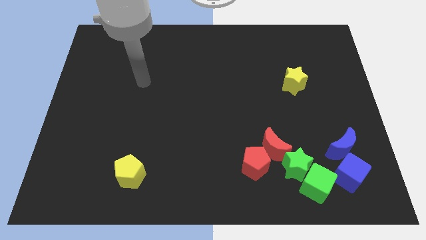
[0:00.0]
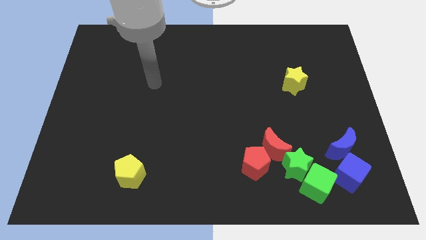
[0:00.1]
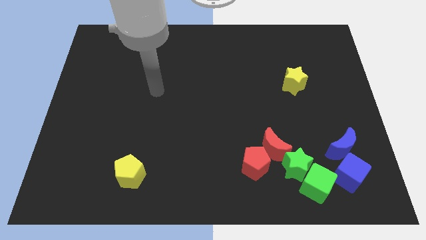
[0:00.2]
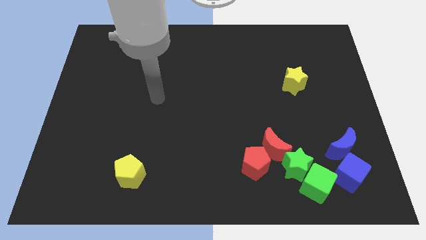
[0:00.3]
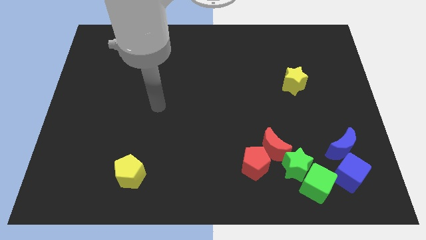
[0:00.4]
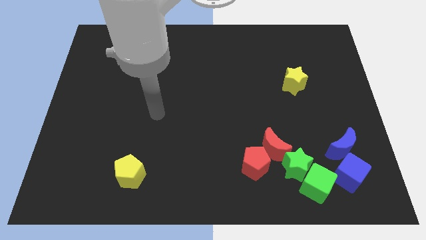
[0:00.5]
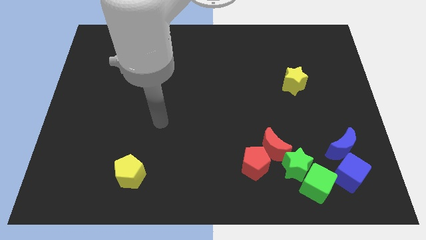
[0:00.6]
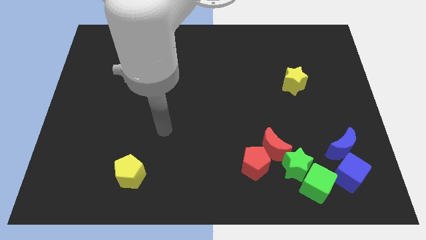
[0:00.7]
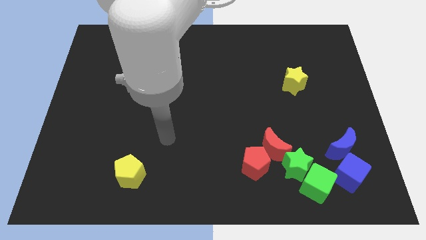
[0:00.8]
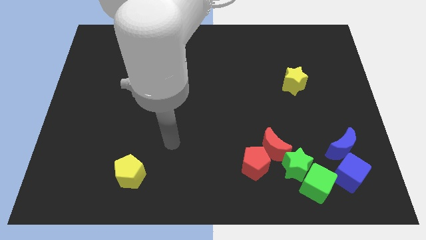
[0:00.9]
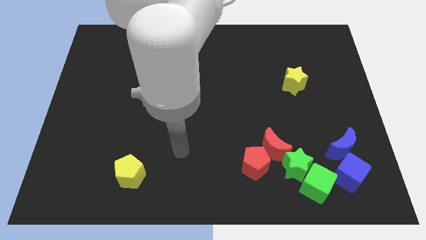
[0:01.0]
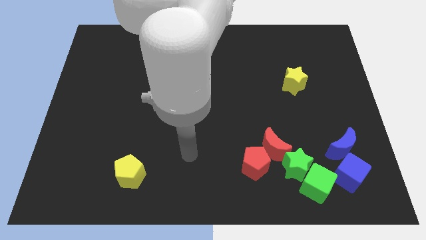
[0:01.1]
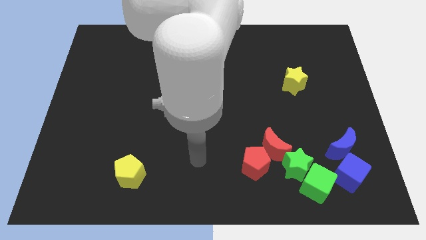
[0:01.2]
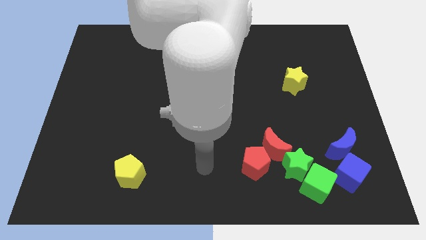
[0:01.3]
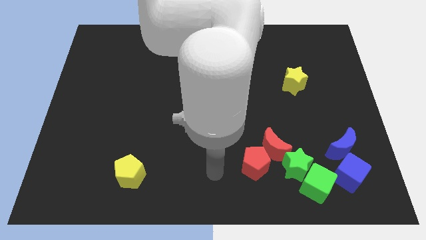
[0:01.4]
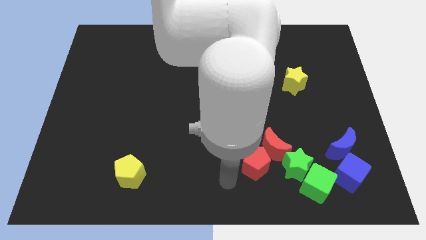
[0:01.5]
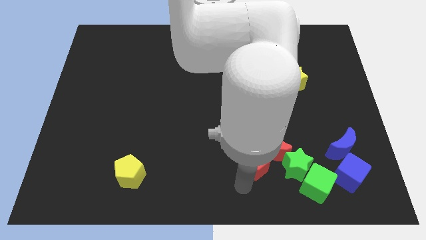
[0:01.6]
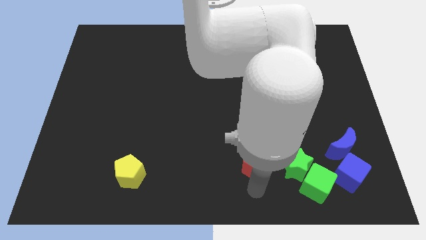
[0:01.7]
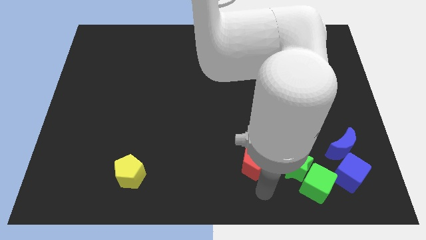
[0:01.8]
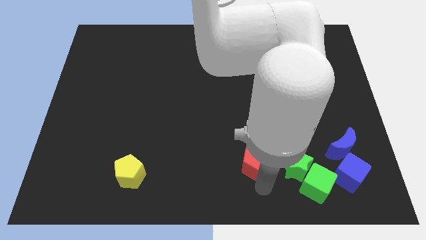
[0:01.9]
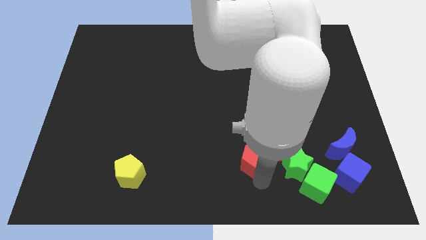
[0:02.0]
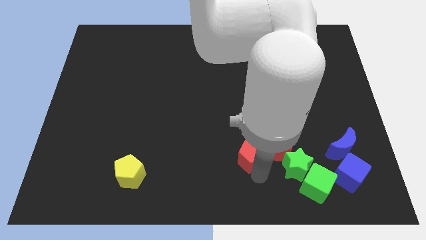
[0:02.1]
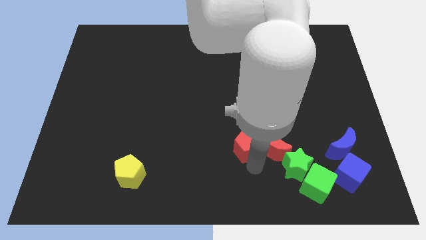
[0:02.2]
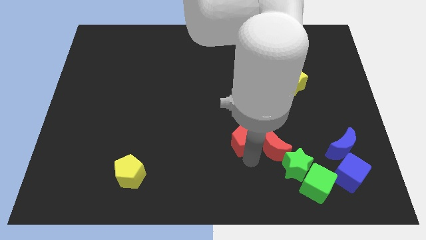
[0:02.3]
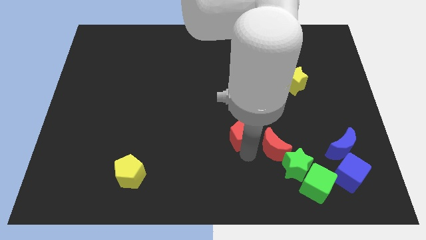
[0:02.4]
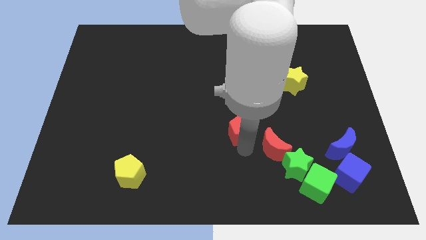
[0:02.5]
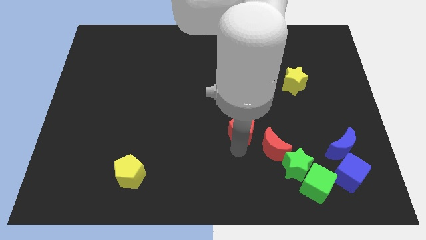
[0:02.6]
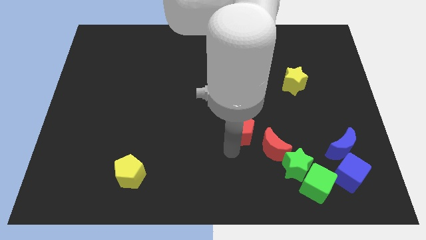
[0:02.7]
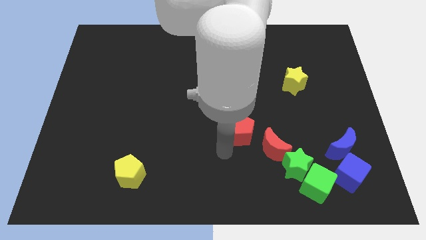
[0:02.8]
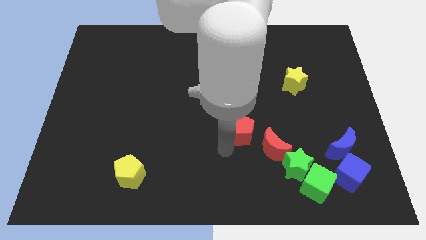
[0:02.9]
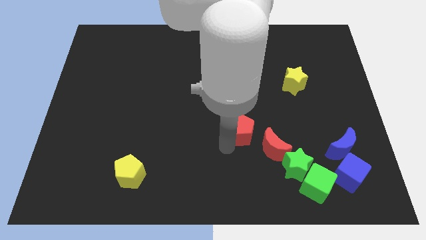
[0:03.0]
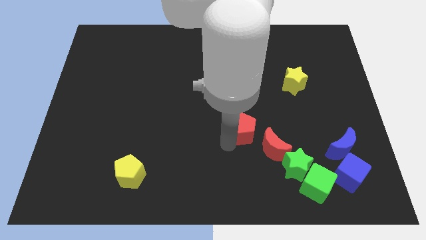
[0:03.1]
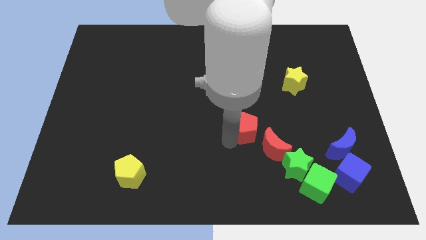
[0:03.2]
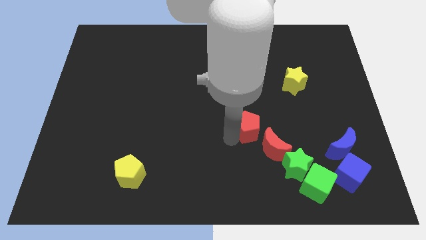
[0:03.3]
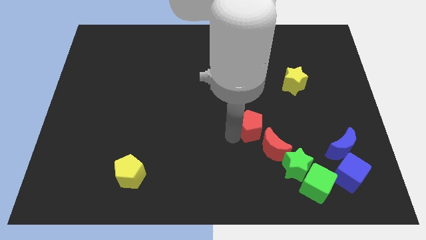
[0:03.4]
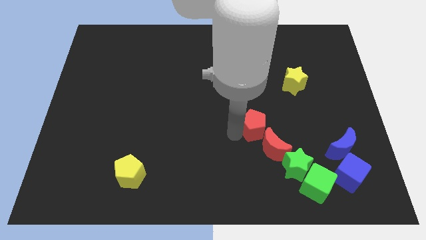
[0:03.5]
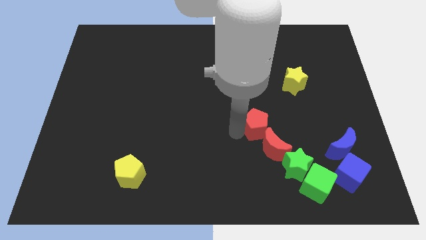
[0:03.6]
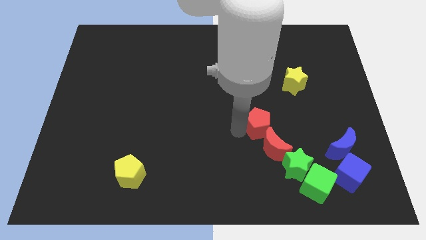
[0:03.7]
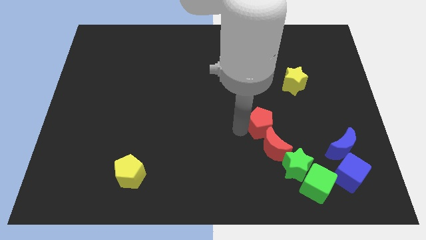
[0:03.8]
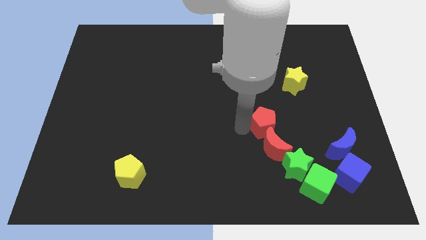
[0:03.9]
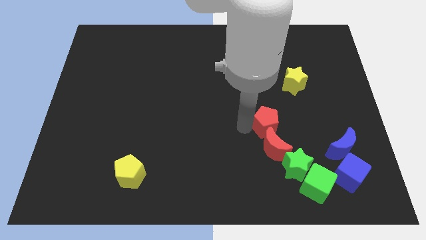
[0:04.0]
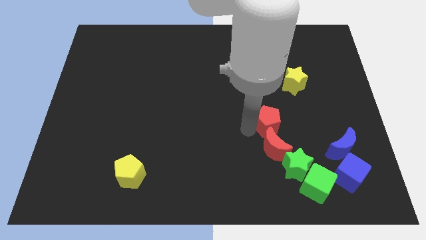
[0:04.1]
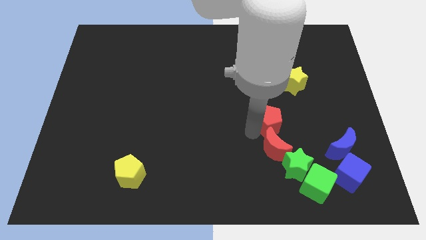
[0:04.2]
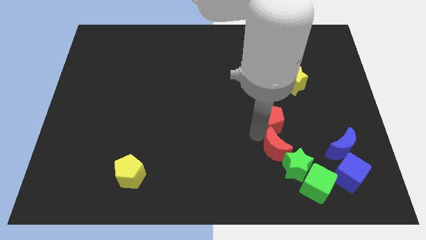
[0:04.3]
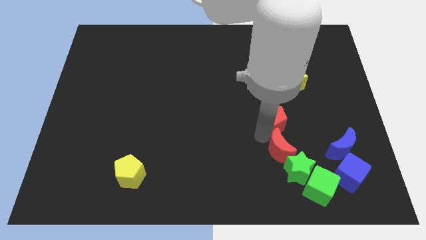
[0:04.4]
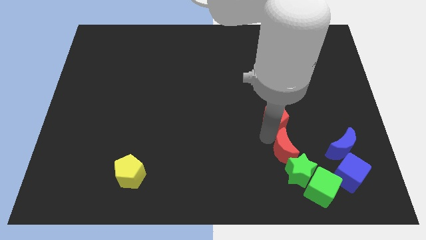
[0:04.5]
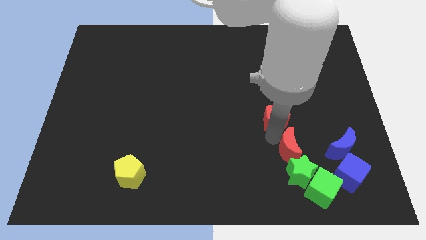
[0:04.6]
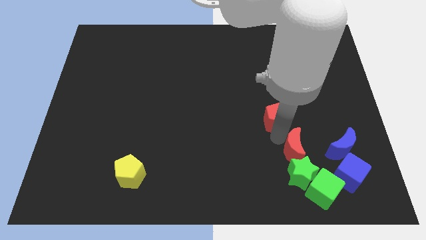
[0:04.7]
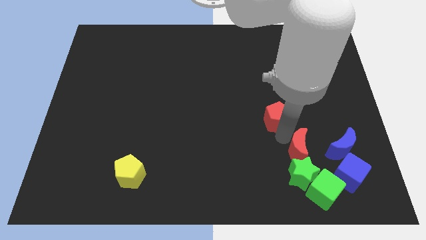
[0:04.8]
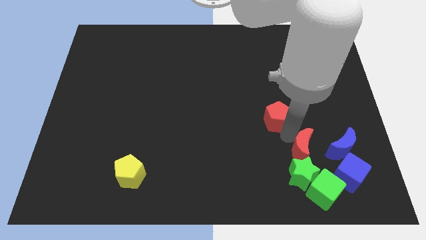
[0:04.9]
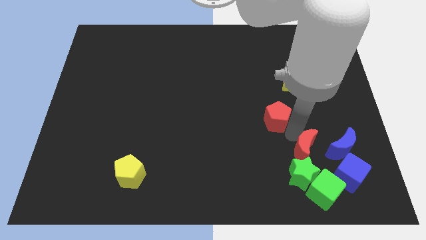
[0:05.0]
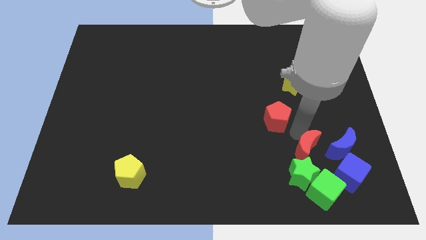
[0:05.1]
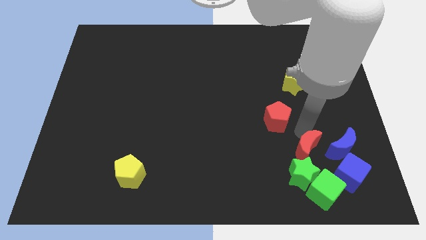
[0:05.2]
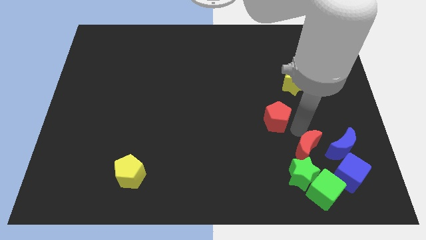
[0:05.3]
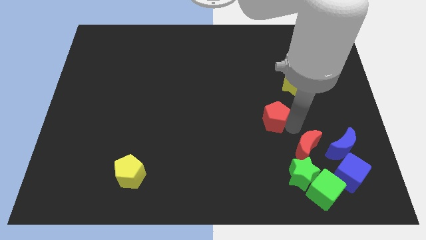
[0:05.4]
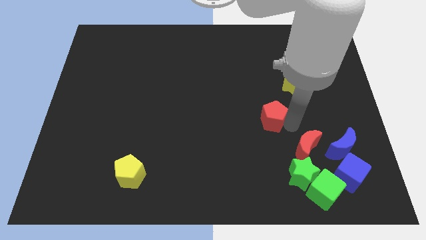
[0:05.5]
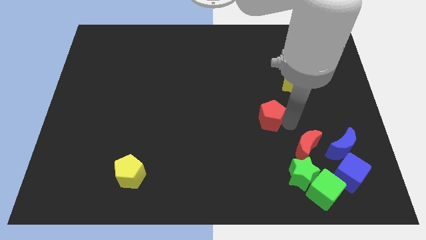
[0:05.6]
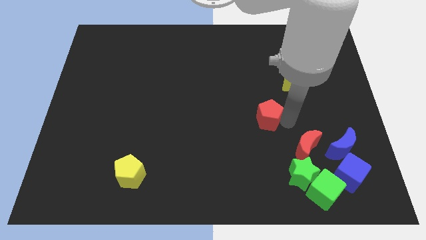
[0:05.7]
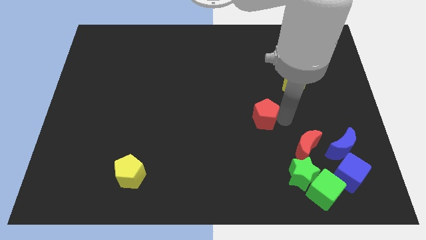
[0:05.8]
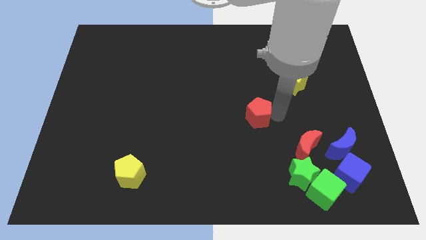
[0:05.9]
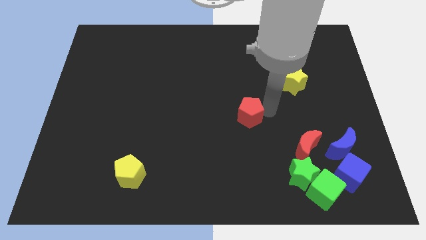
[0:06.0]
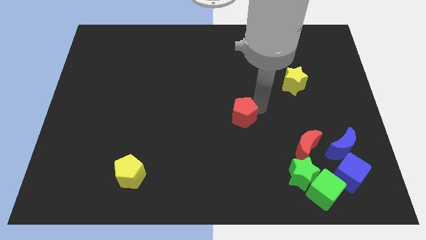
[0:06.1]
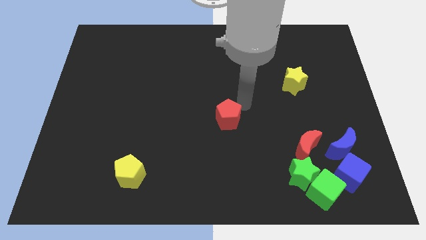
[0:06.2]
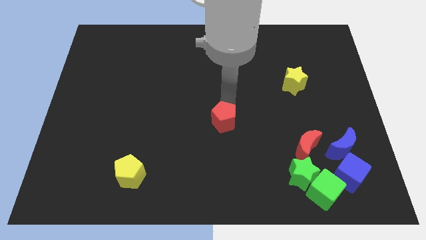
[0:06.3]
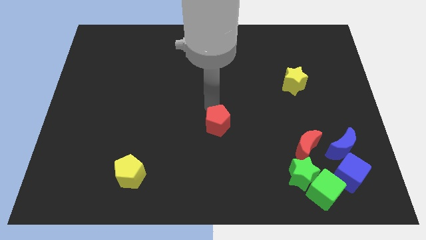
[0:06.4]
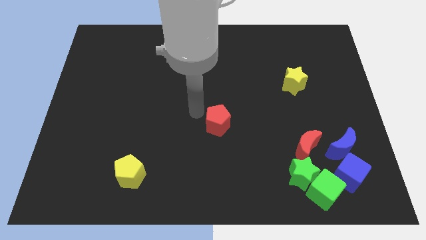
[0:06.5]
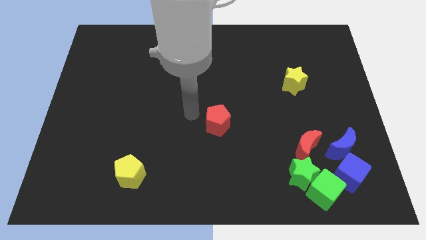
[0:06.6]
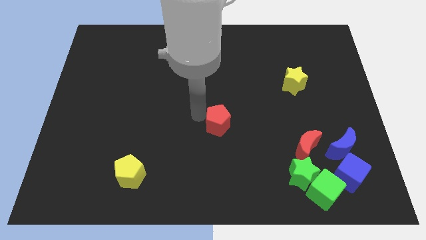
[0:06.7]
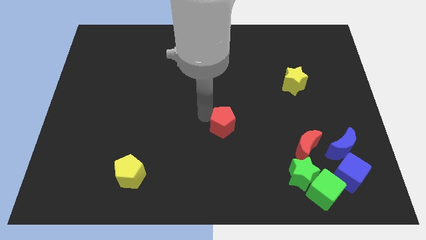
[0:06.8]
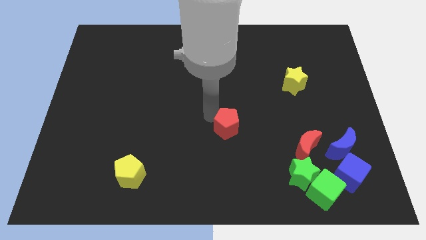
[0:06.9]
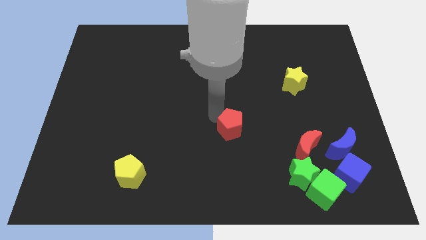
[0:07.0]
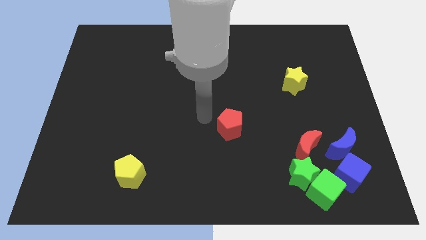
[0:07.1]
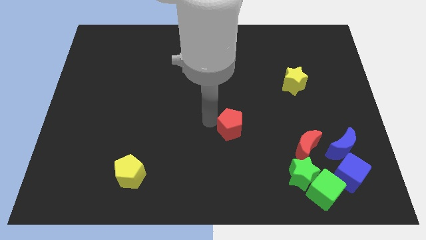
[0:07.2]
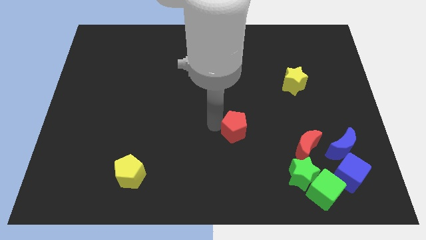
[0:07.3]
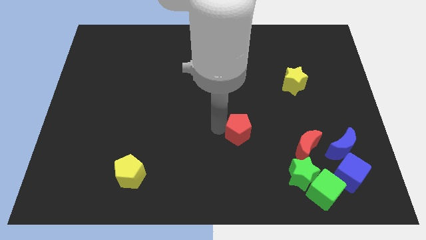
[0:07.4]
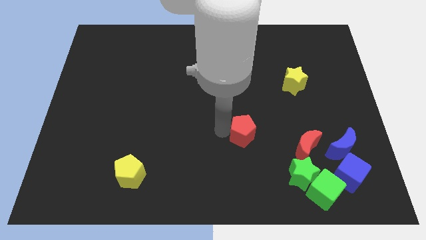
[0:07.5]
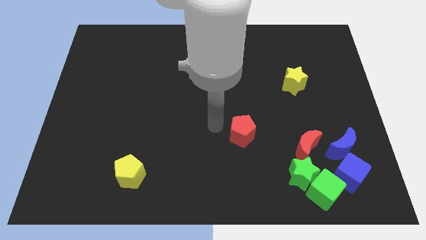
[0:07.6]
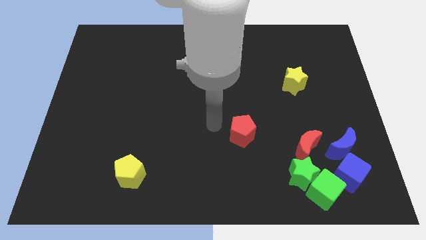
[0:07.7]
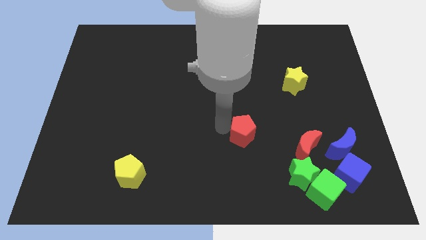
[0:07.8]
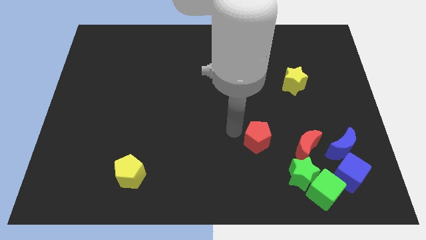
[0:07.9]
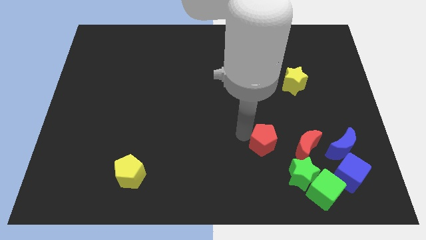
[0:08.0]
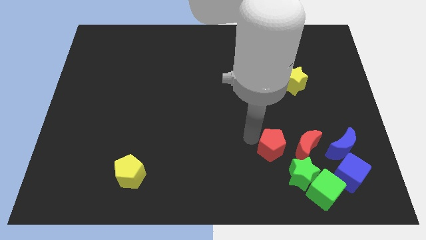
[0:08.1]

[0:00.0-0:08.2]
slide the red pentagon just left of the blue moon
